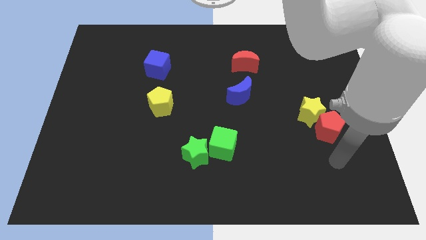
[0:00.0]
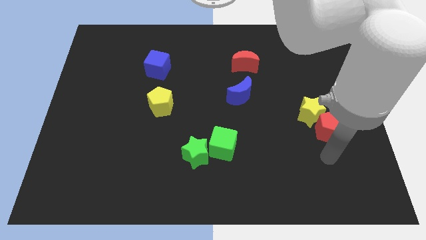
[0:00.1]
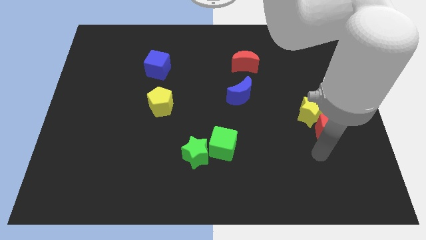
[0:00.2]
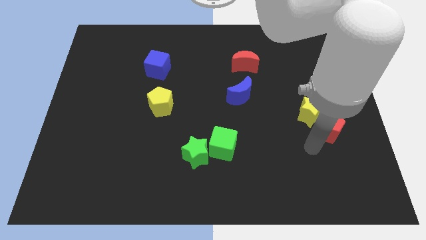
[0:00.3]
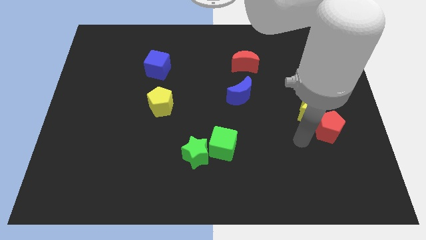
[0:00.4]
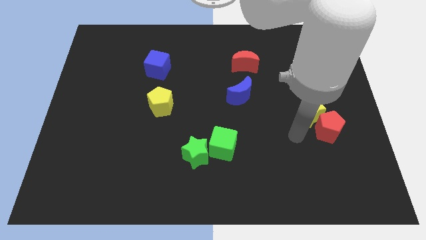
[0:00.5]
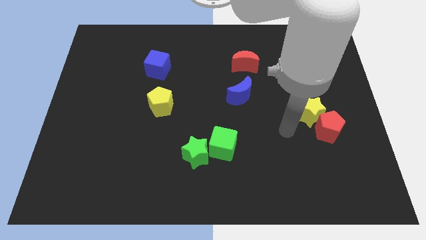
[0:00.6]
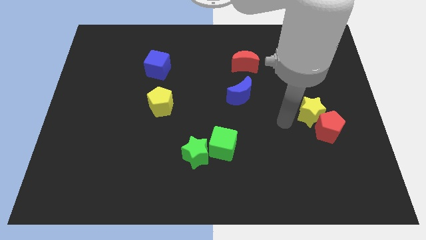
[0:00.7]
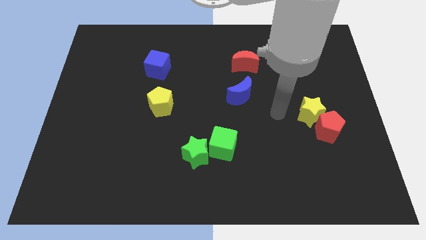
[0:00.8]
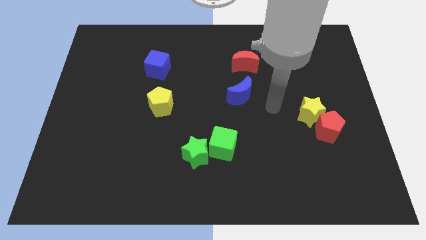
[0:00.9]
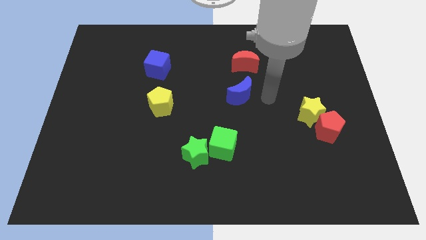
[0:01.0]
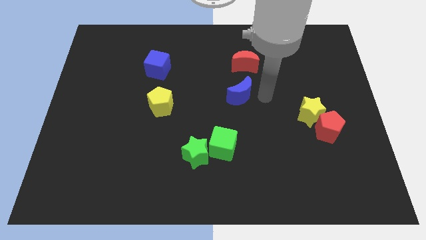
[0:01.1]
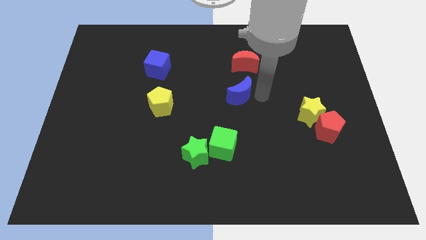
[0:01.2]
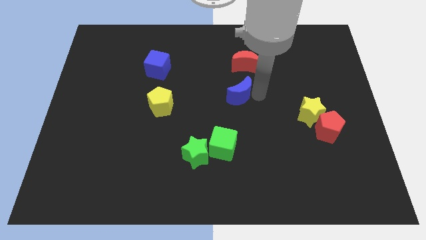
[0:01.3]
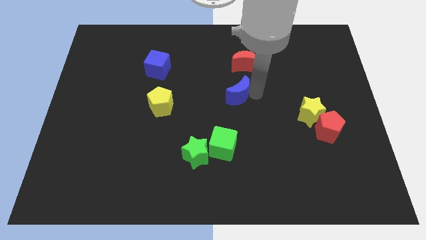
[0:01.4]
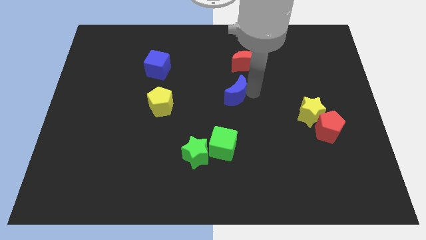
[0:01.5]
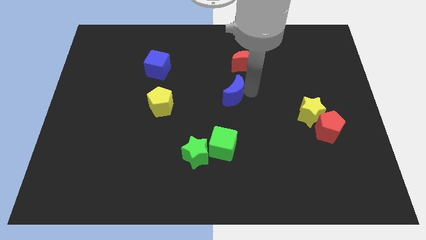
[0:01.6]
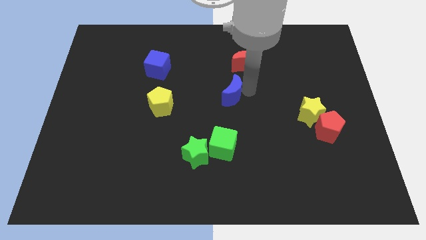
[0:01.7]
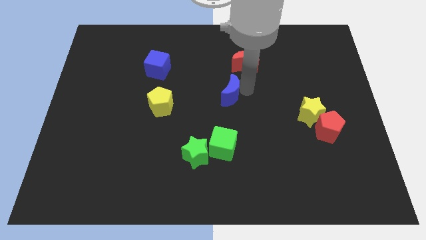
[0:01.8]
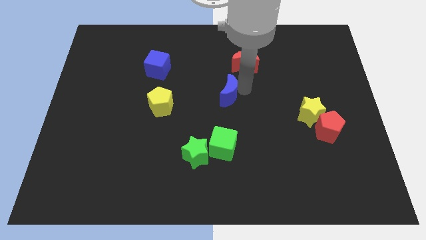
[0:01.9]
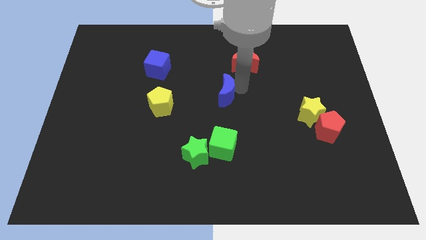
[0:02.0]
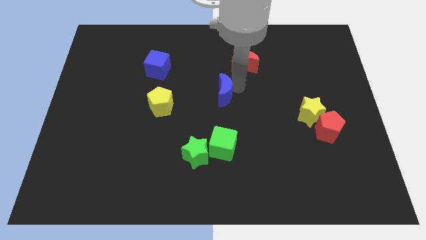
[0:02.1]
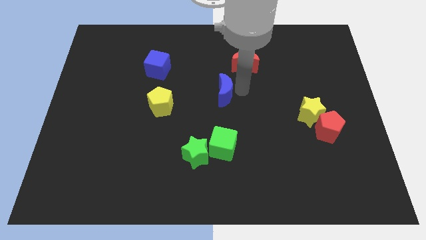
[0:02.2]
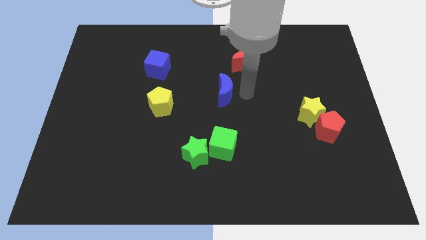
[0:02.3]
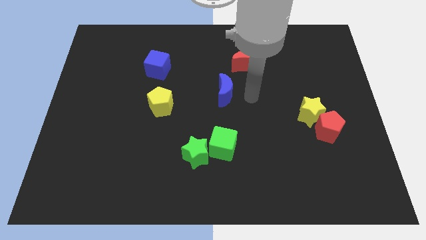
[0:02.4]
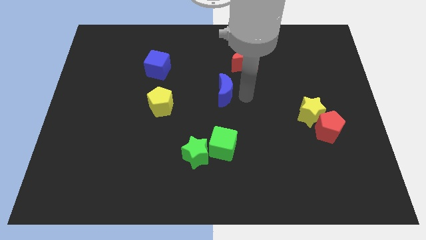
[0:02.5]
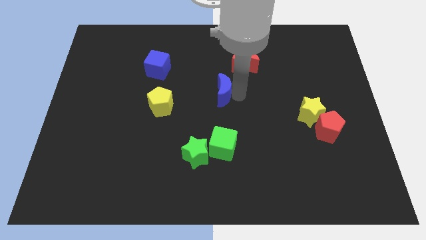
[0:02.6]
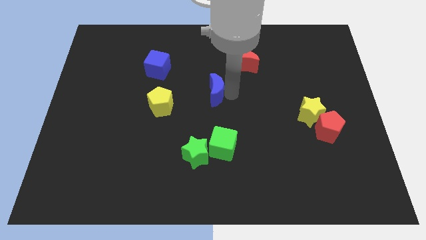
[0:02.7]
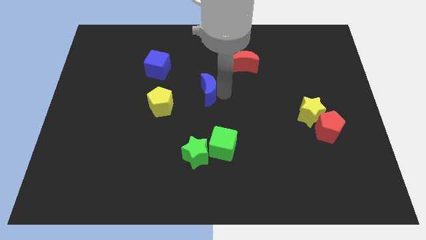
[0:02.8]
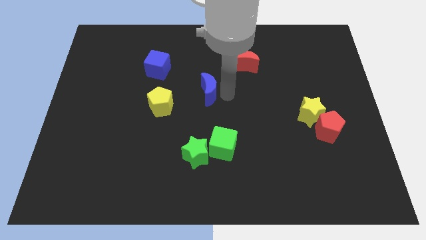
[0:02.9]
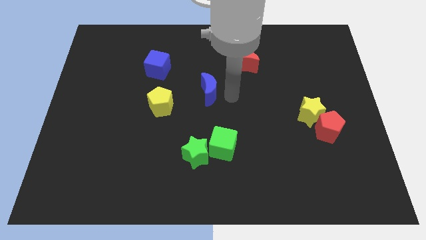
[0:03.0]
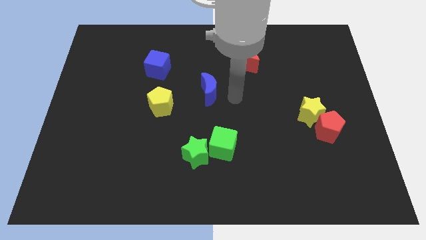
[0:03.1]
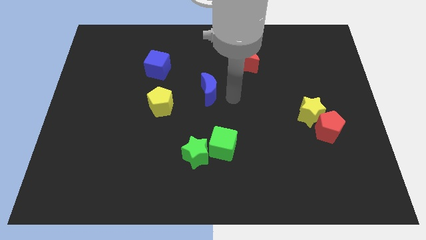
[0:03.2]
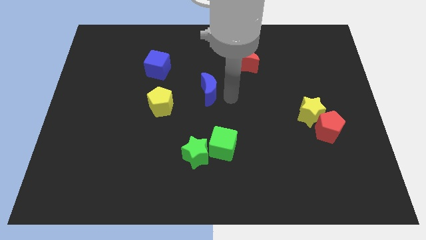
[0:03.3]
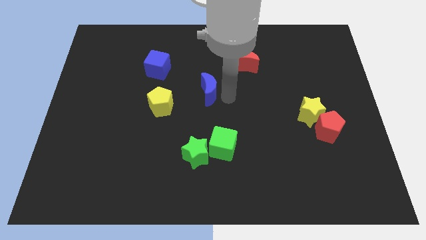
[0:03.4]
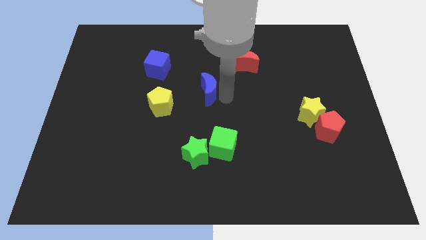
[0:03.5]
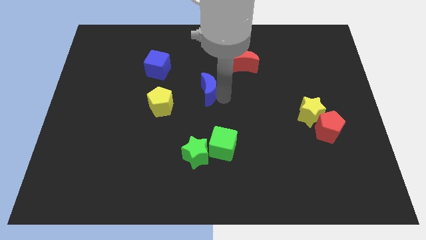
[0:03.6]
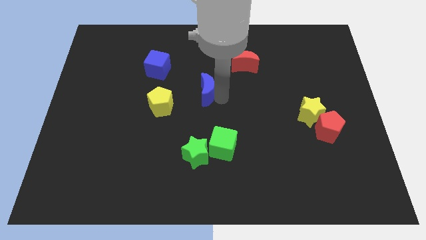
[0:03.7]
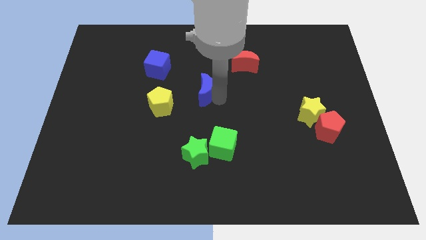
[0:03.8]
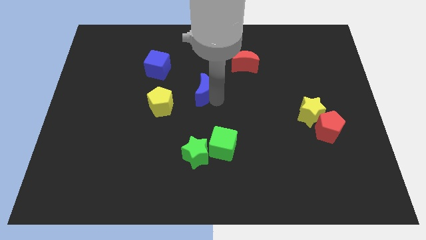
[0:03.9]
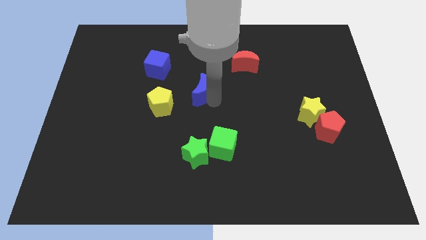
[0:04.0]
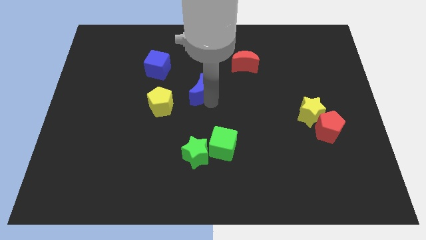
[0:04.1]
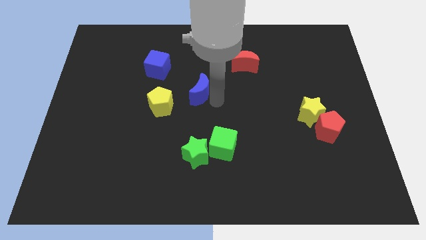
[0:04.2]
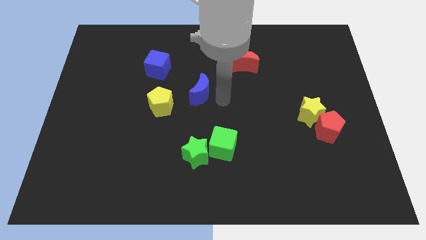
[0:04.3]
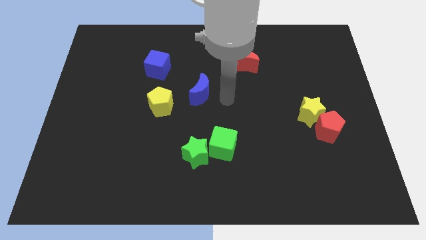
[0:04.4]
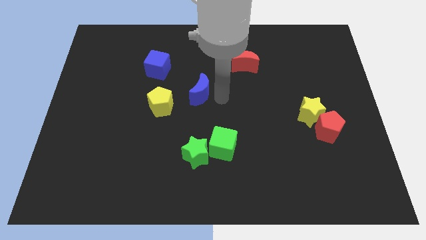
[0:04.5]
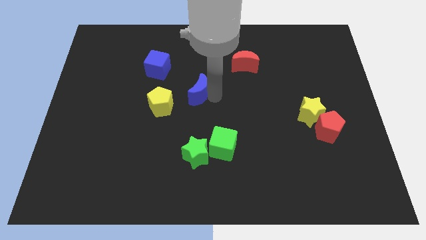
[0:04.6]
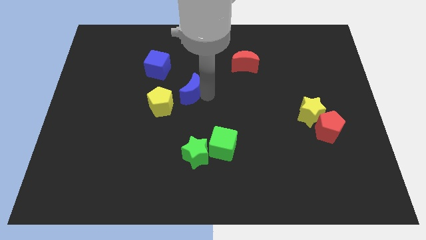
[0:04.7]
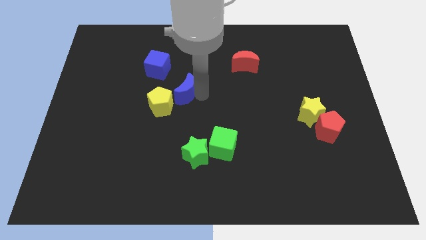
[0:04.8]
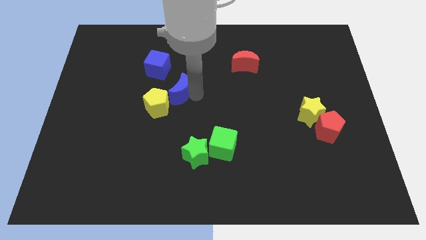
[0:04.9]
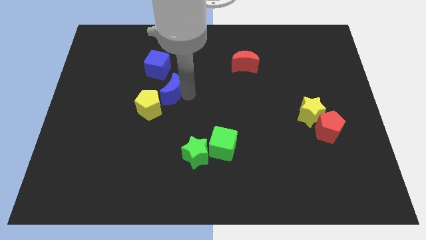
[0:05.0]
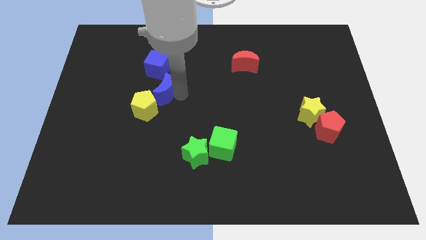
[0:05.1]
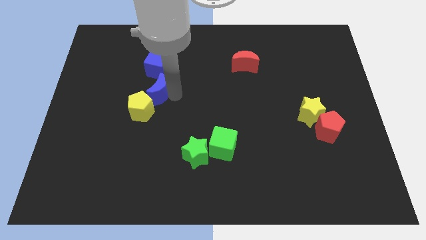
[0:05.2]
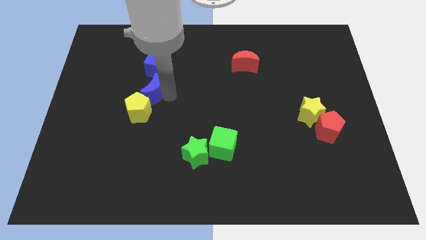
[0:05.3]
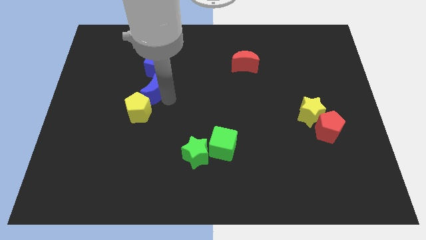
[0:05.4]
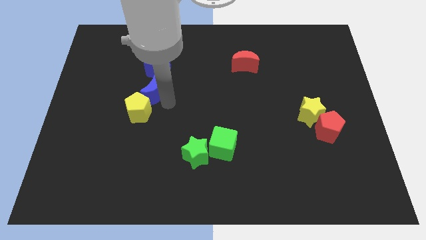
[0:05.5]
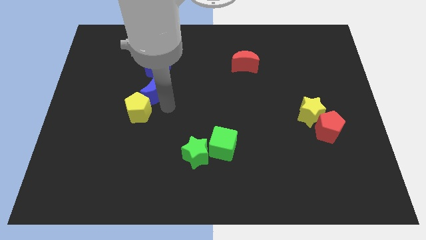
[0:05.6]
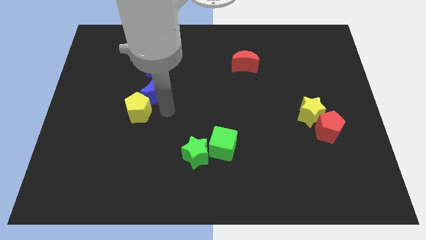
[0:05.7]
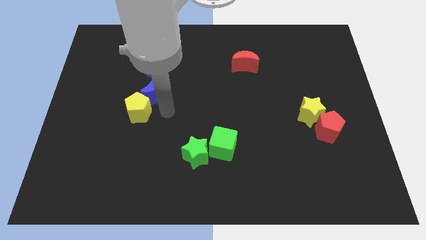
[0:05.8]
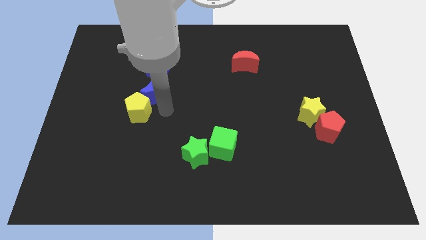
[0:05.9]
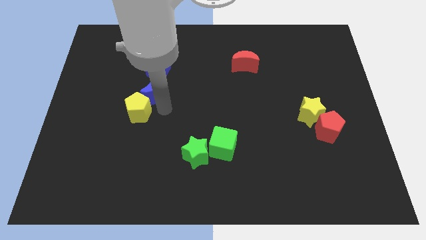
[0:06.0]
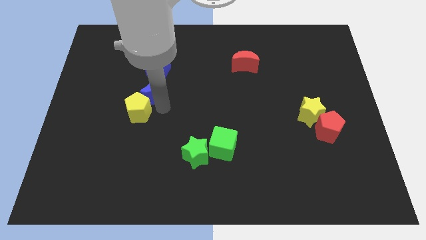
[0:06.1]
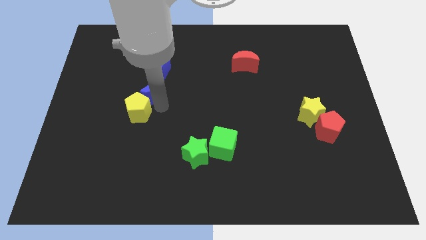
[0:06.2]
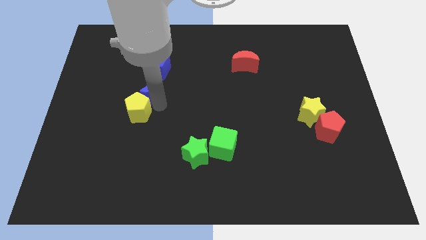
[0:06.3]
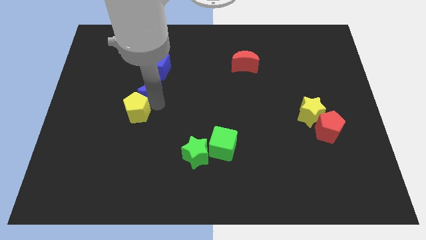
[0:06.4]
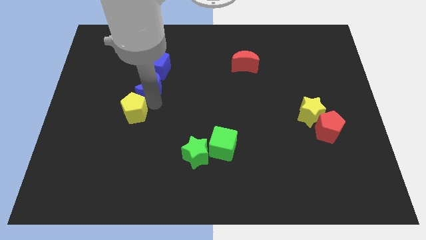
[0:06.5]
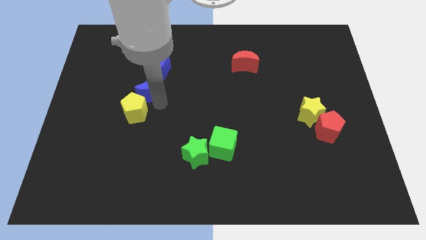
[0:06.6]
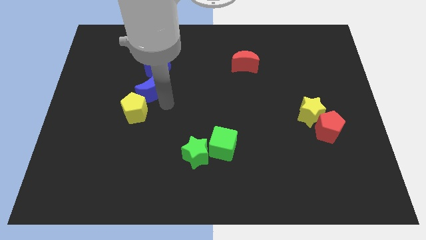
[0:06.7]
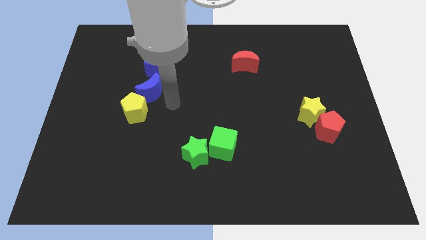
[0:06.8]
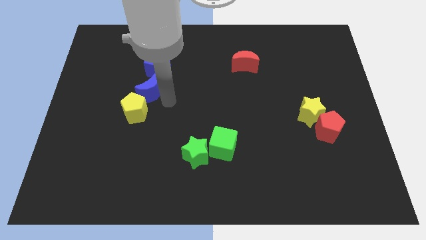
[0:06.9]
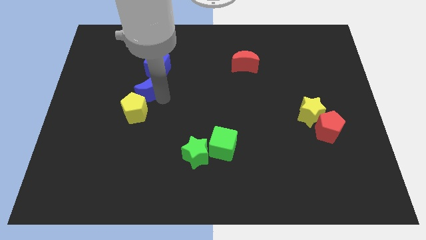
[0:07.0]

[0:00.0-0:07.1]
put the blue moon diagonally down and to the left of the blue cube
